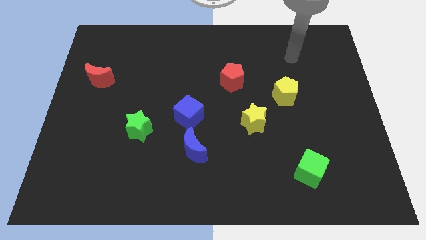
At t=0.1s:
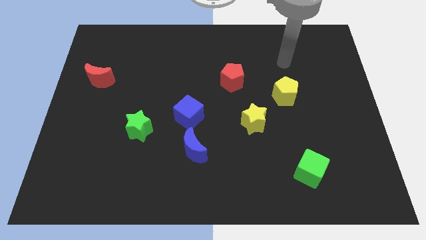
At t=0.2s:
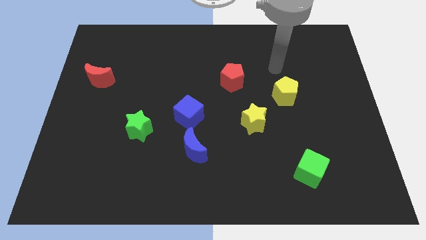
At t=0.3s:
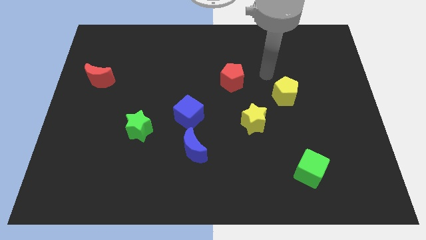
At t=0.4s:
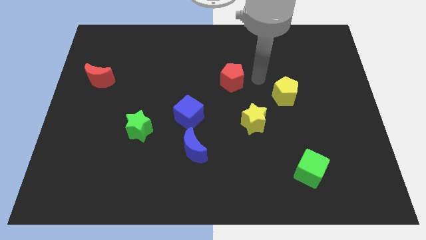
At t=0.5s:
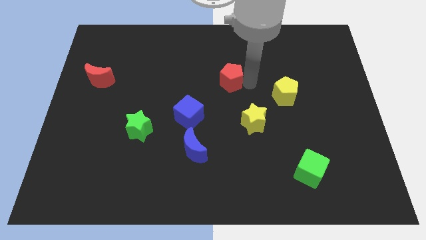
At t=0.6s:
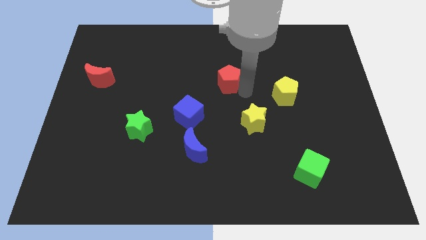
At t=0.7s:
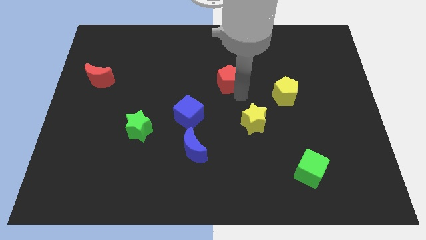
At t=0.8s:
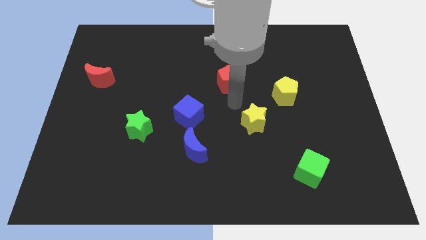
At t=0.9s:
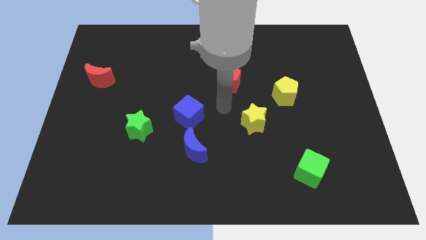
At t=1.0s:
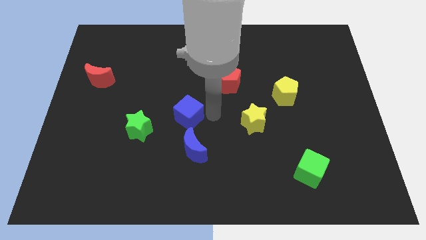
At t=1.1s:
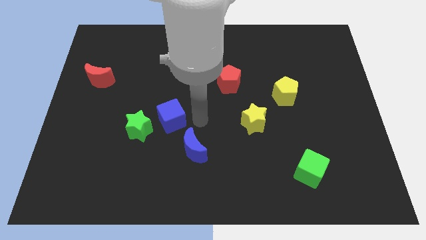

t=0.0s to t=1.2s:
move the blue moon away from the blue cube

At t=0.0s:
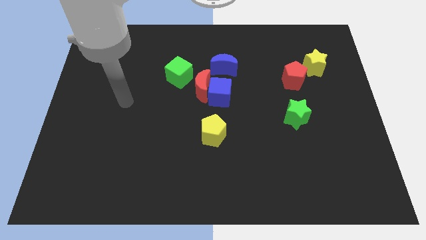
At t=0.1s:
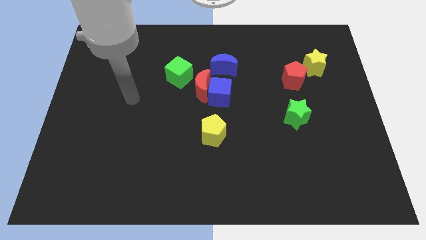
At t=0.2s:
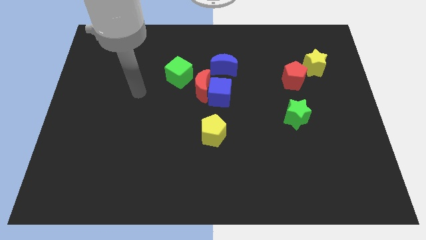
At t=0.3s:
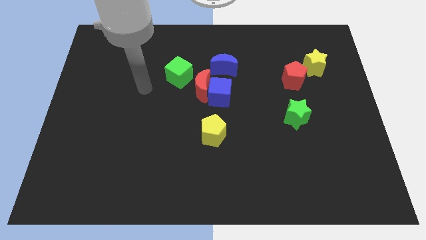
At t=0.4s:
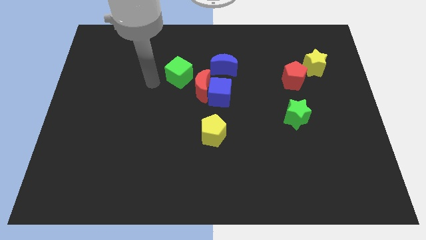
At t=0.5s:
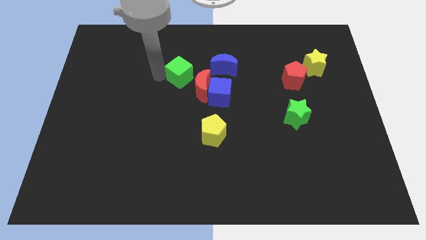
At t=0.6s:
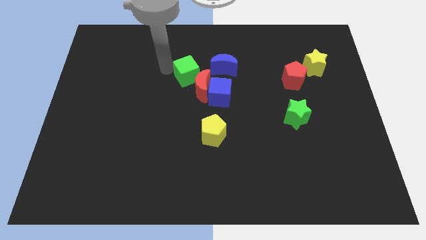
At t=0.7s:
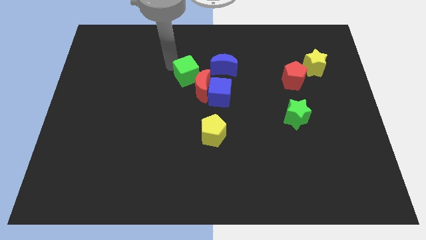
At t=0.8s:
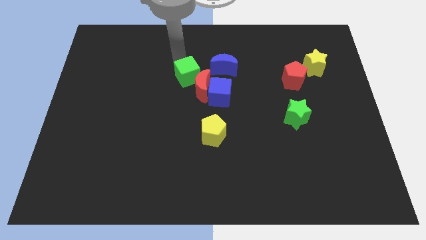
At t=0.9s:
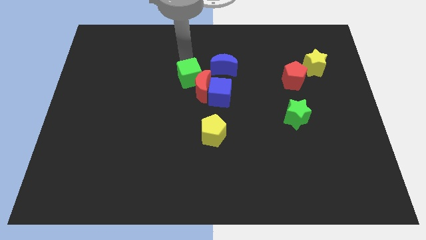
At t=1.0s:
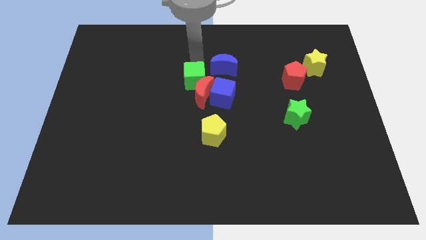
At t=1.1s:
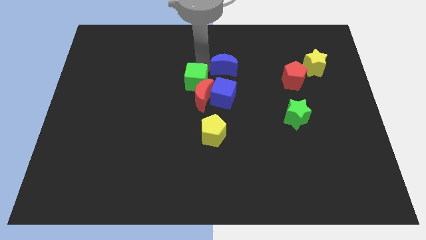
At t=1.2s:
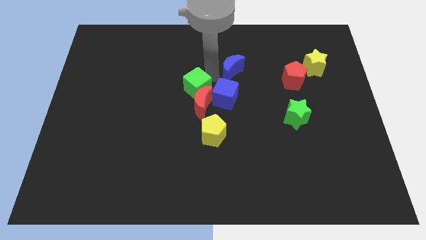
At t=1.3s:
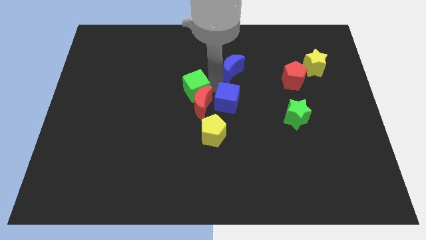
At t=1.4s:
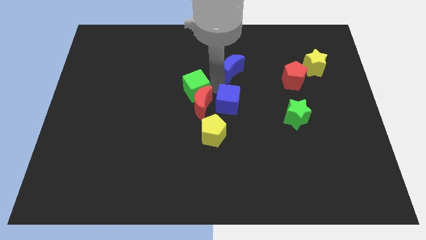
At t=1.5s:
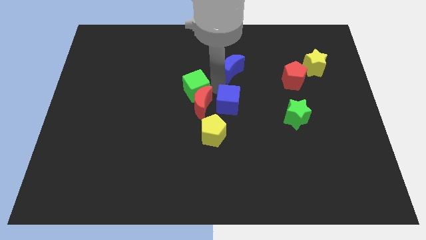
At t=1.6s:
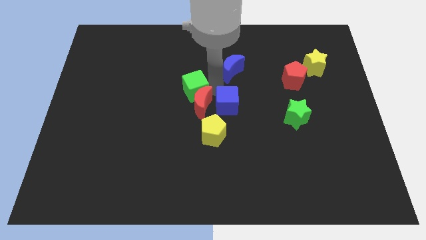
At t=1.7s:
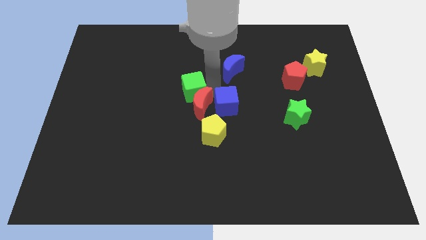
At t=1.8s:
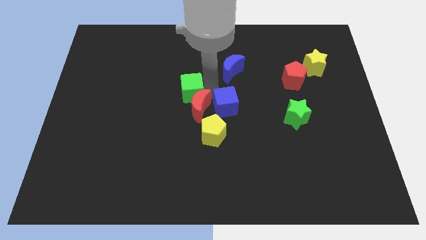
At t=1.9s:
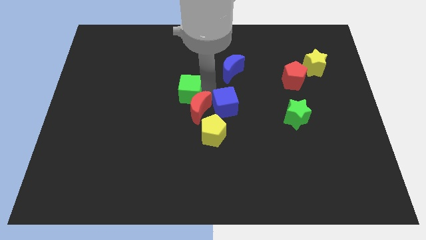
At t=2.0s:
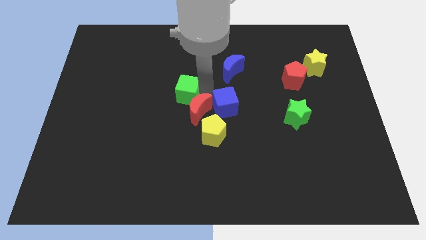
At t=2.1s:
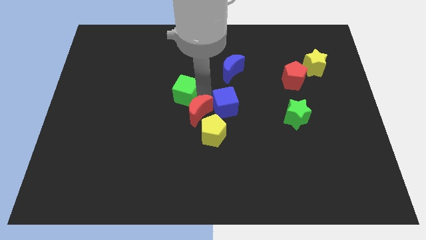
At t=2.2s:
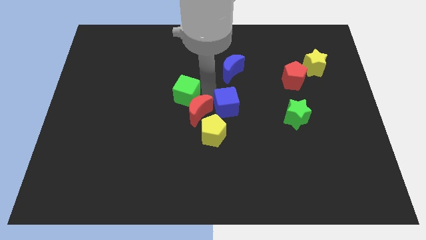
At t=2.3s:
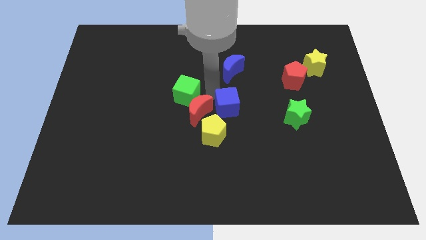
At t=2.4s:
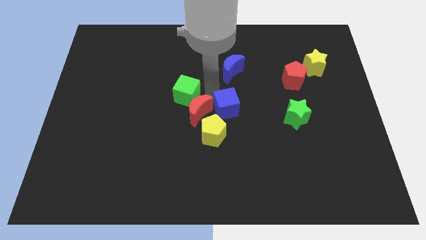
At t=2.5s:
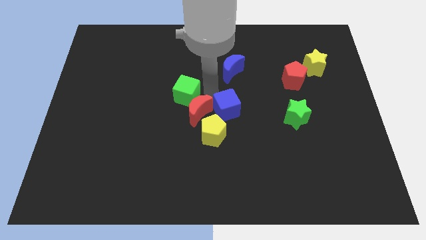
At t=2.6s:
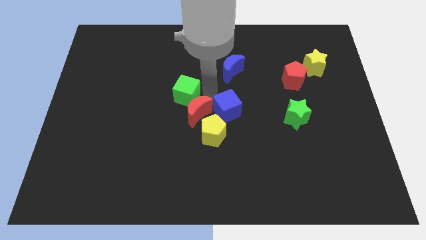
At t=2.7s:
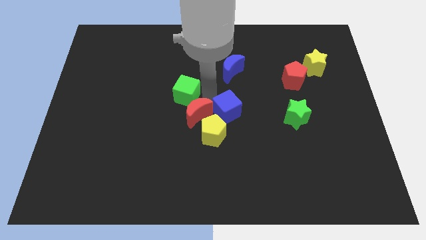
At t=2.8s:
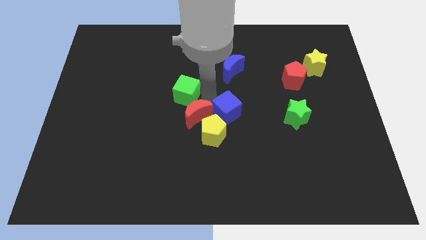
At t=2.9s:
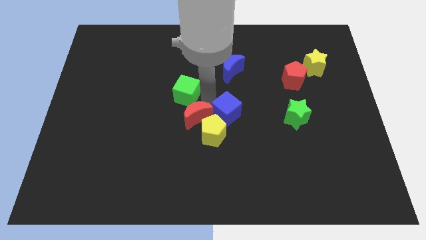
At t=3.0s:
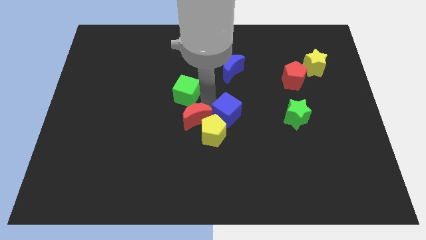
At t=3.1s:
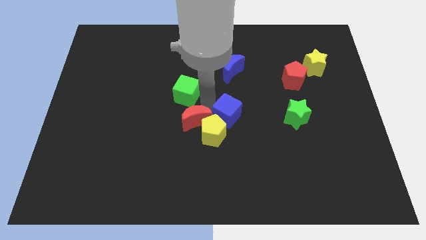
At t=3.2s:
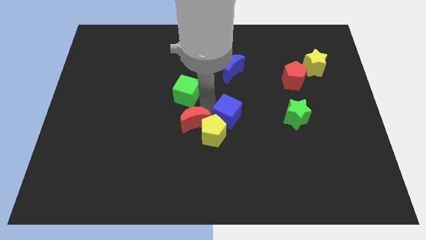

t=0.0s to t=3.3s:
move the red moon away from the clump

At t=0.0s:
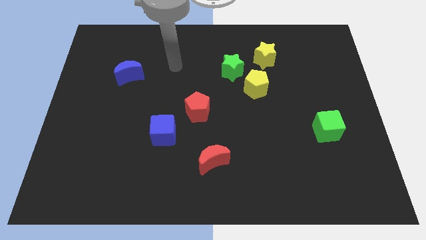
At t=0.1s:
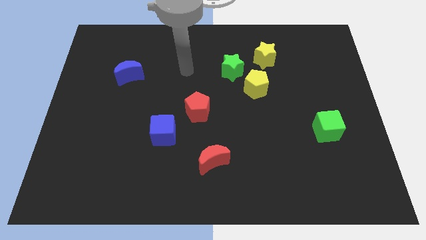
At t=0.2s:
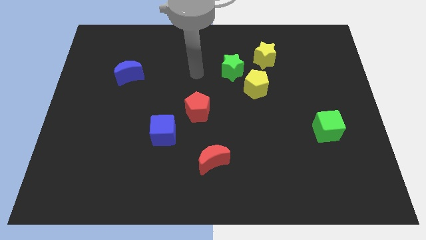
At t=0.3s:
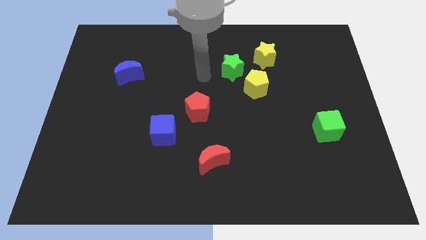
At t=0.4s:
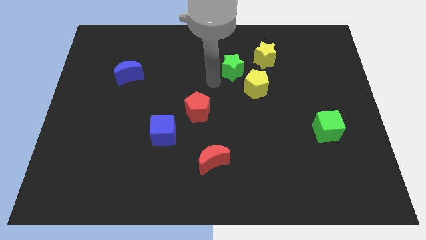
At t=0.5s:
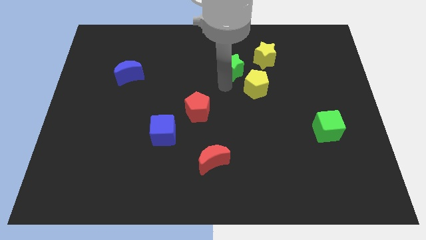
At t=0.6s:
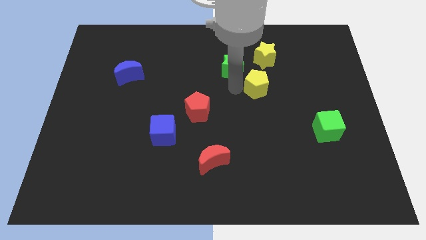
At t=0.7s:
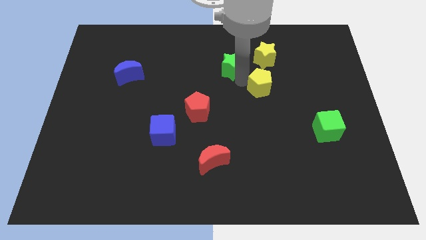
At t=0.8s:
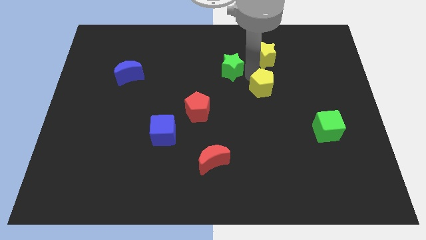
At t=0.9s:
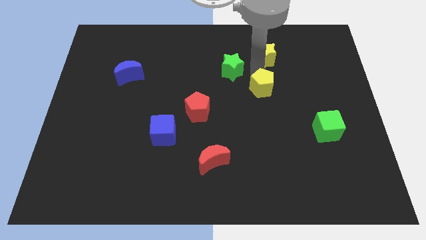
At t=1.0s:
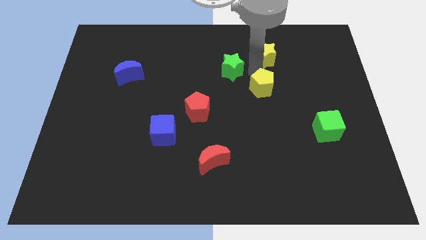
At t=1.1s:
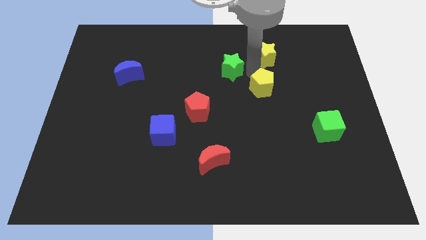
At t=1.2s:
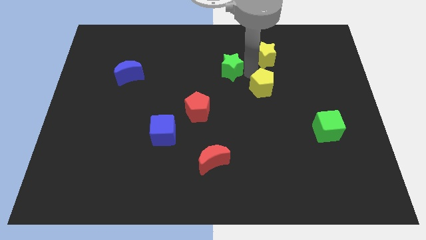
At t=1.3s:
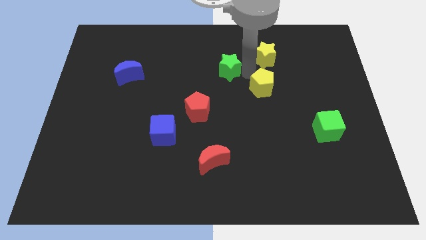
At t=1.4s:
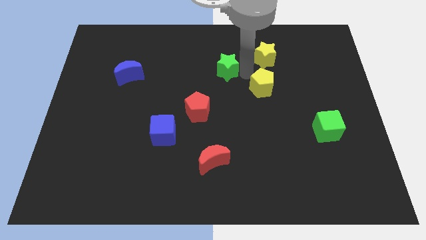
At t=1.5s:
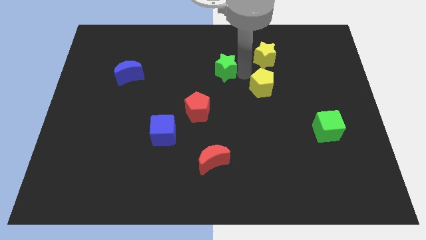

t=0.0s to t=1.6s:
separate the green star from the yellow pentagon and yellow star

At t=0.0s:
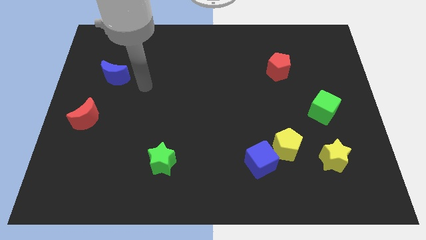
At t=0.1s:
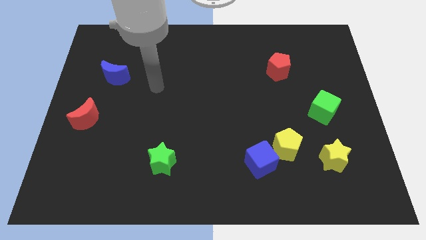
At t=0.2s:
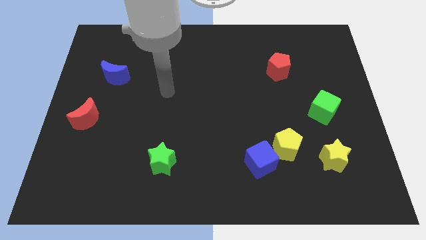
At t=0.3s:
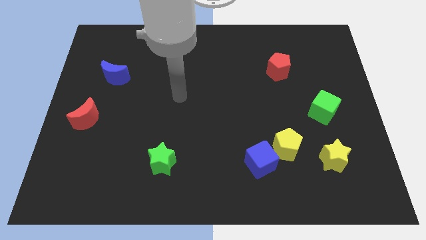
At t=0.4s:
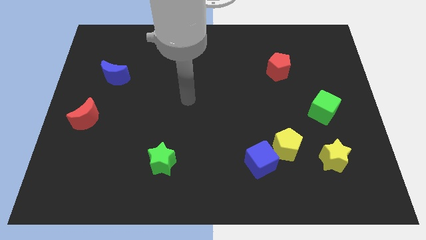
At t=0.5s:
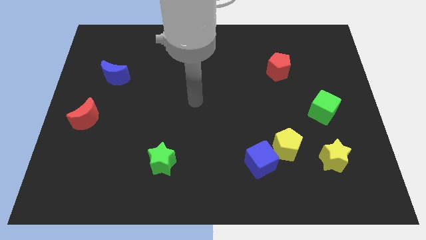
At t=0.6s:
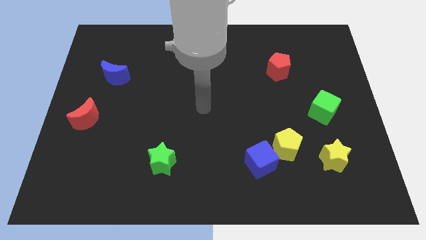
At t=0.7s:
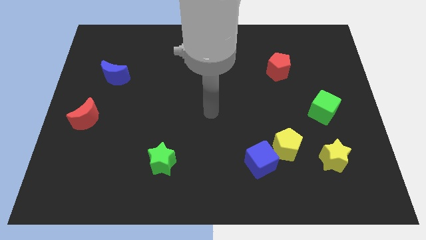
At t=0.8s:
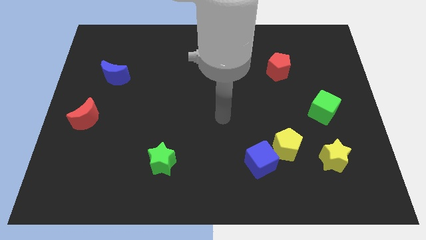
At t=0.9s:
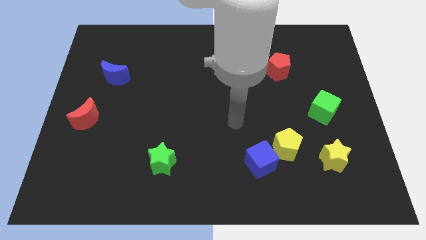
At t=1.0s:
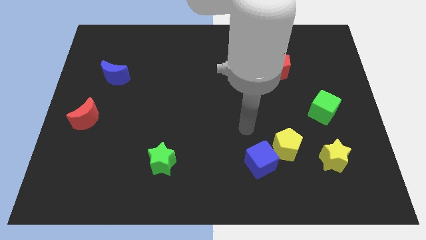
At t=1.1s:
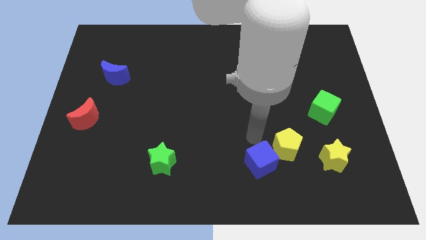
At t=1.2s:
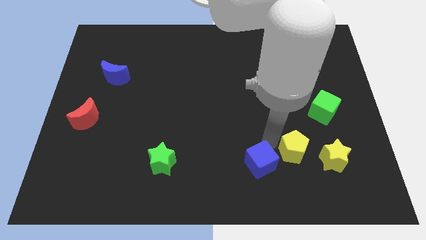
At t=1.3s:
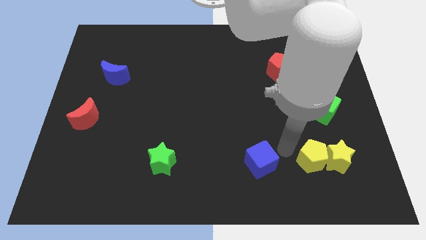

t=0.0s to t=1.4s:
pull the blue cube apart from the yellow pentagon

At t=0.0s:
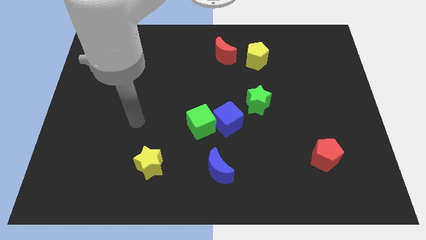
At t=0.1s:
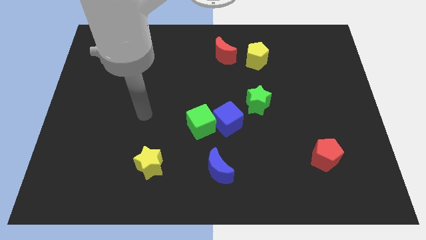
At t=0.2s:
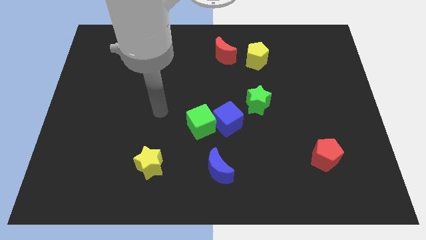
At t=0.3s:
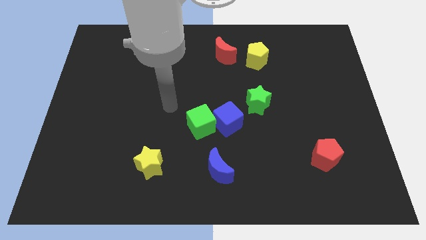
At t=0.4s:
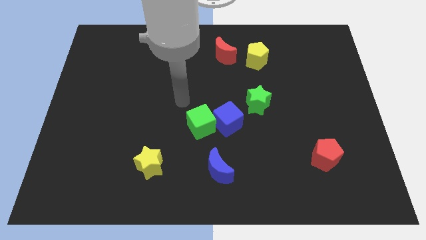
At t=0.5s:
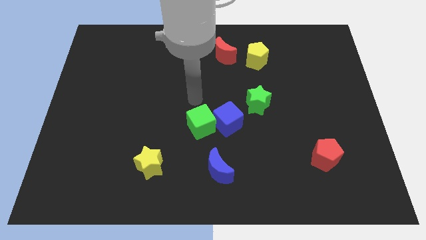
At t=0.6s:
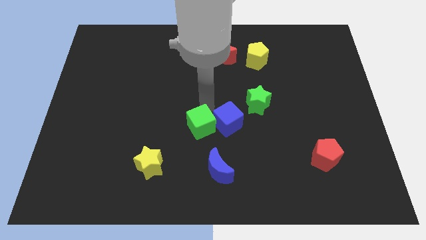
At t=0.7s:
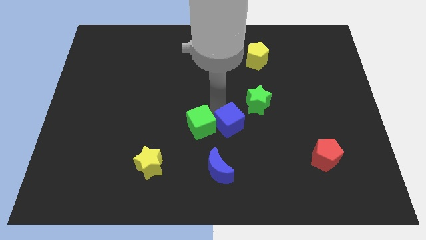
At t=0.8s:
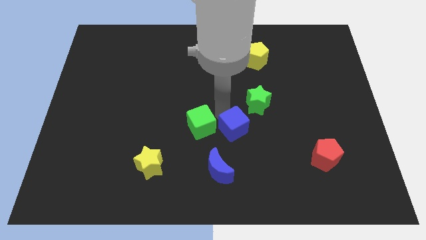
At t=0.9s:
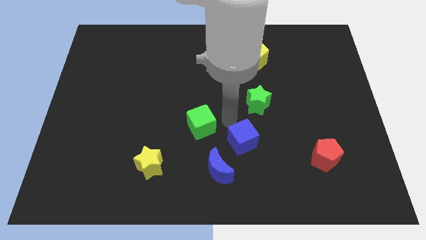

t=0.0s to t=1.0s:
move the green cube away from the blue cube

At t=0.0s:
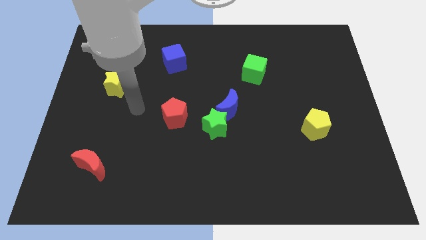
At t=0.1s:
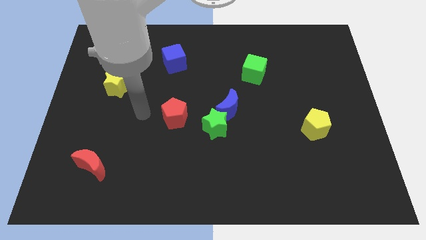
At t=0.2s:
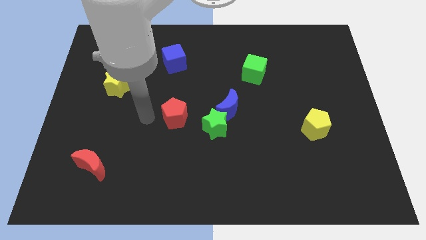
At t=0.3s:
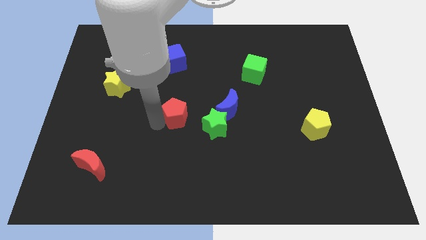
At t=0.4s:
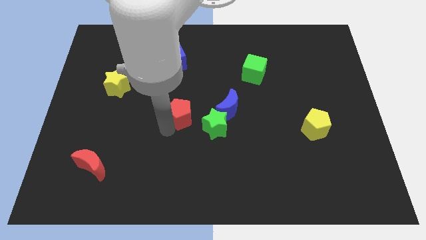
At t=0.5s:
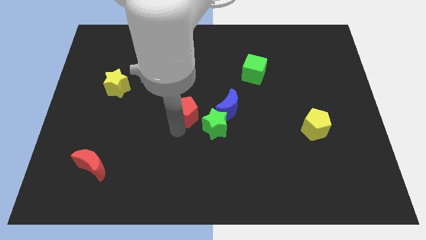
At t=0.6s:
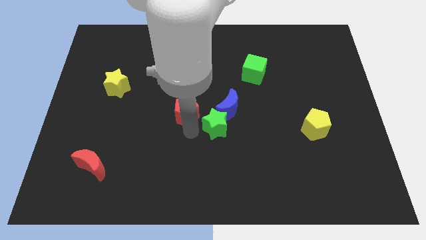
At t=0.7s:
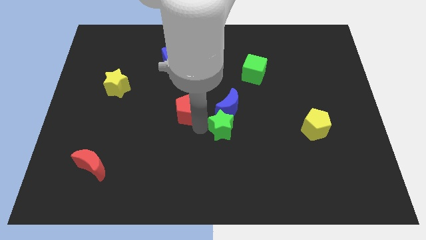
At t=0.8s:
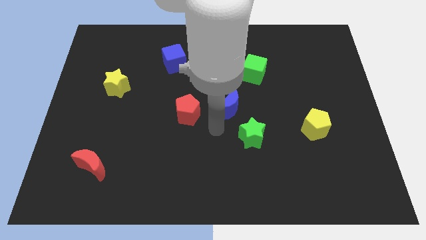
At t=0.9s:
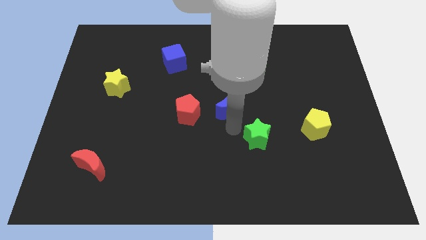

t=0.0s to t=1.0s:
pull the blue moon apart from the green star

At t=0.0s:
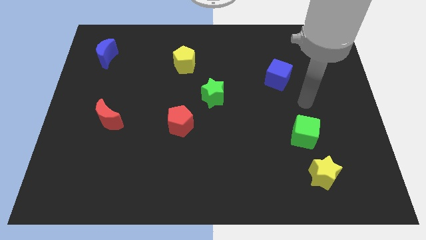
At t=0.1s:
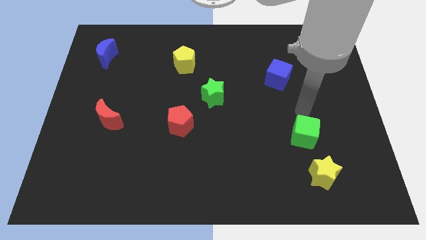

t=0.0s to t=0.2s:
pull the green cube apart from the yellow star
